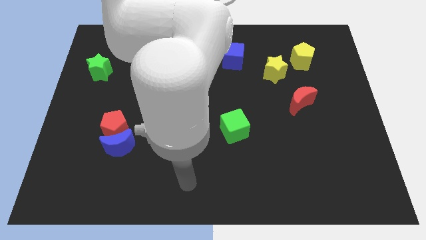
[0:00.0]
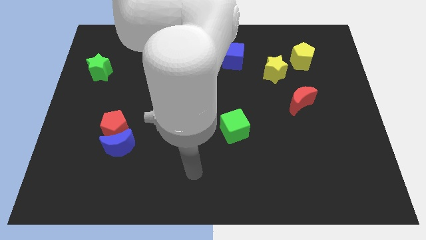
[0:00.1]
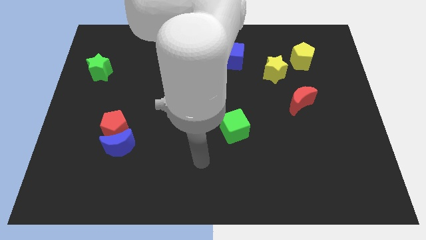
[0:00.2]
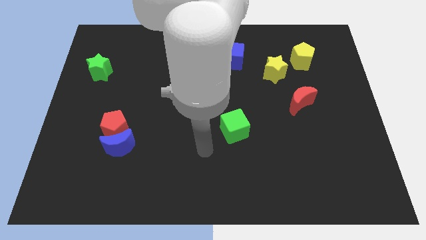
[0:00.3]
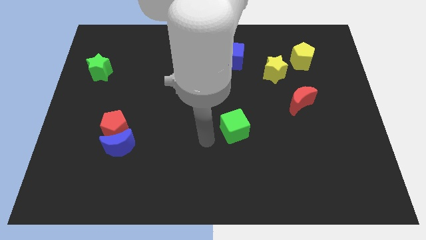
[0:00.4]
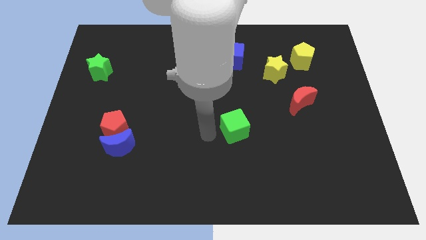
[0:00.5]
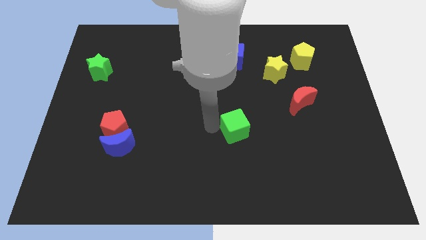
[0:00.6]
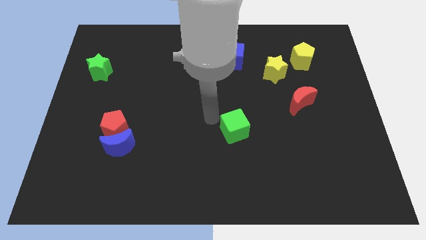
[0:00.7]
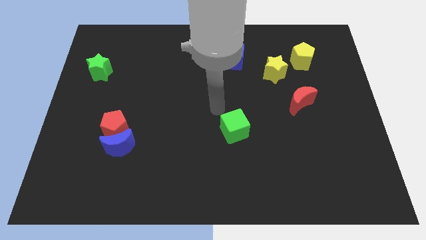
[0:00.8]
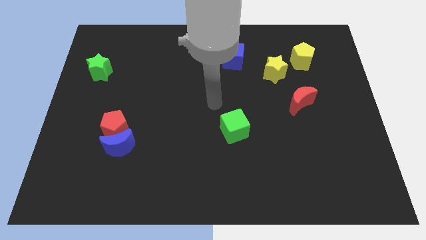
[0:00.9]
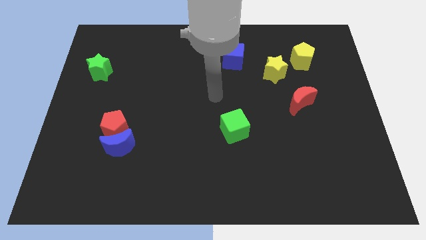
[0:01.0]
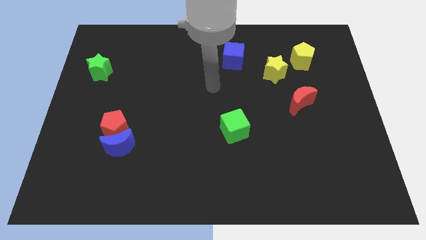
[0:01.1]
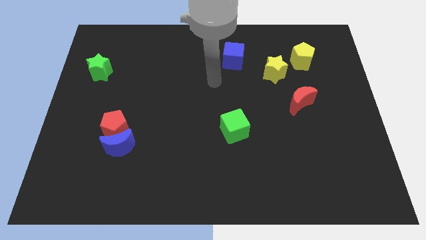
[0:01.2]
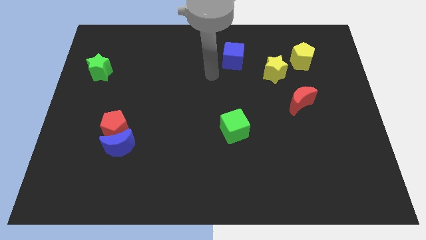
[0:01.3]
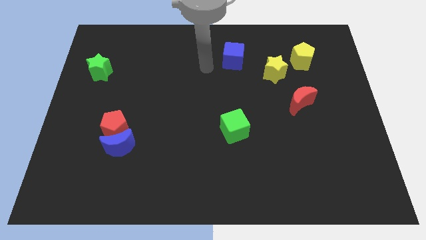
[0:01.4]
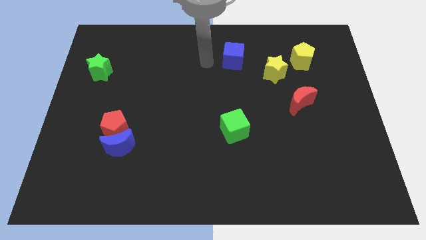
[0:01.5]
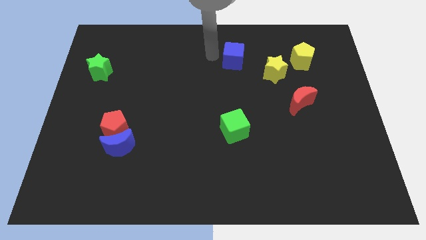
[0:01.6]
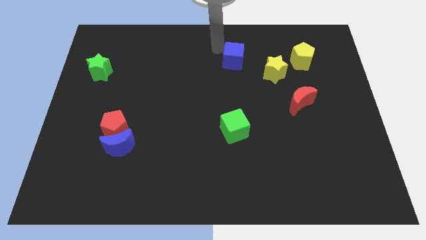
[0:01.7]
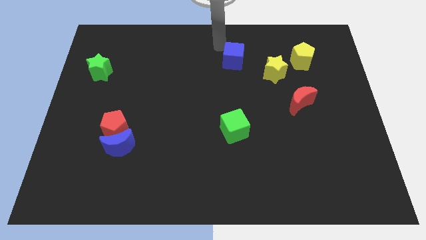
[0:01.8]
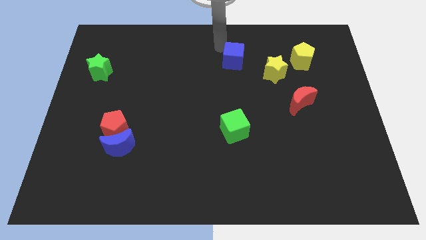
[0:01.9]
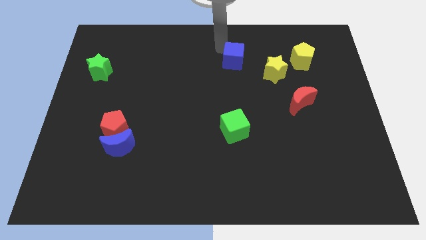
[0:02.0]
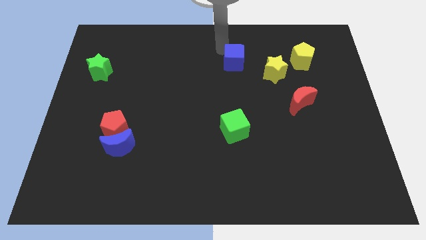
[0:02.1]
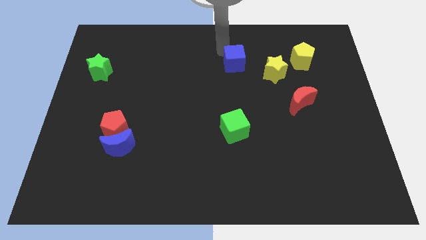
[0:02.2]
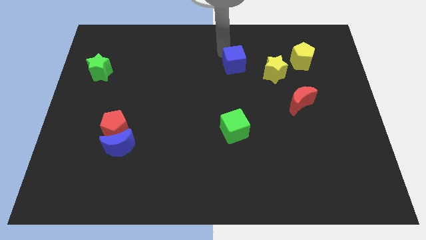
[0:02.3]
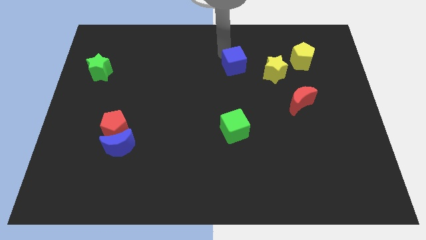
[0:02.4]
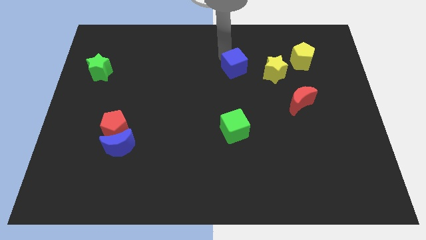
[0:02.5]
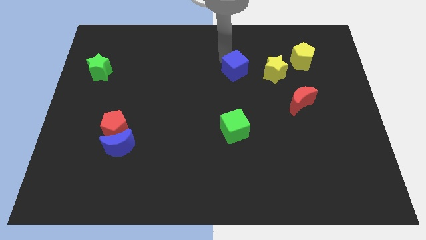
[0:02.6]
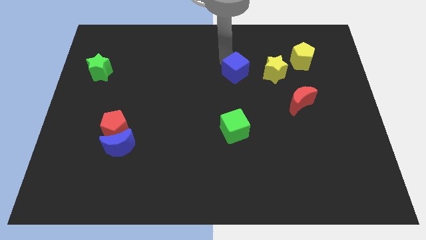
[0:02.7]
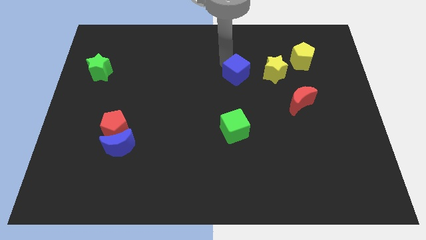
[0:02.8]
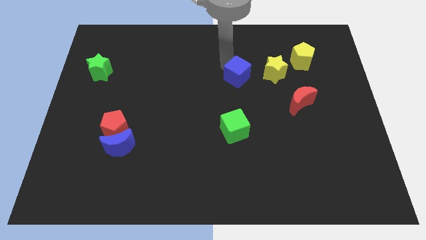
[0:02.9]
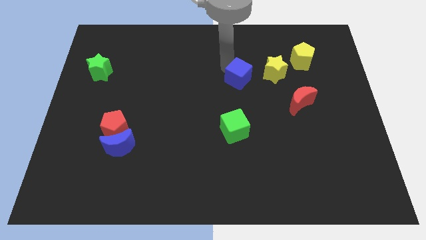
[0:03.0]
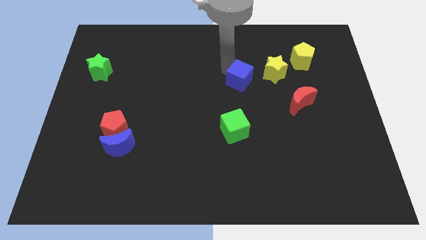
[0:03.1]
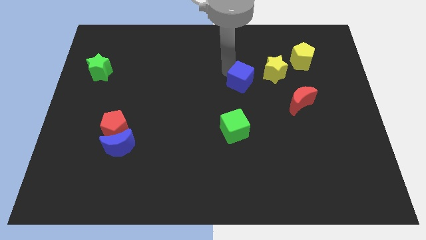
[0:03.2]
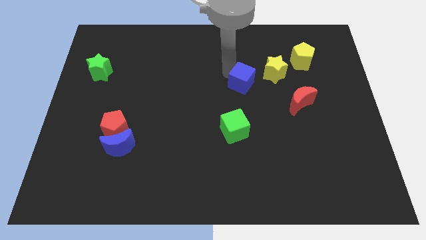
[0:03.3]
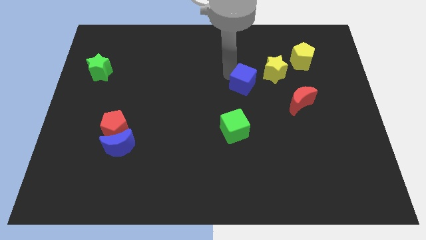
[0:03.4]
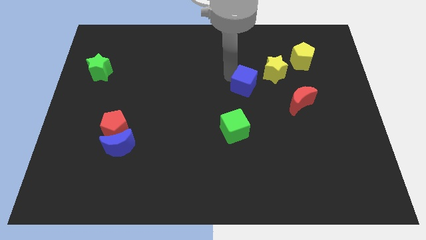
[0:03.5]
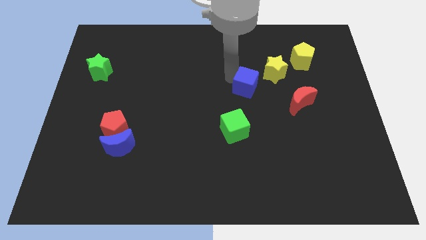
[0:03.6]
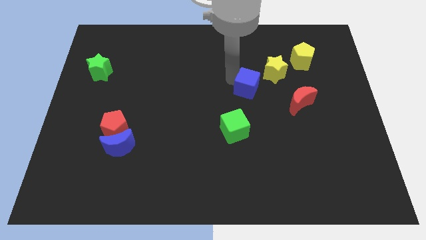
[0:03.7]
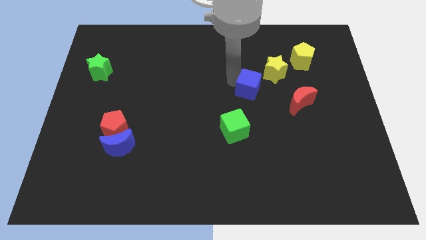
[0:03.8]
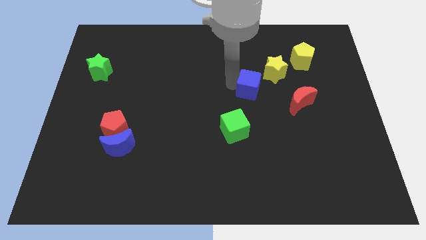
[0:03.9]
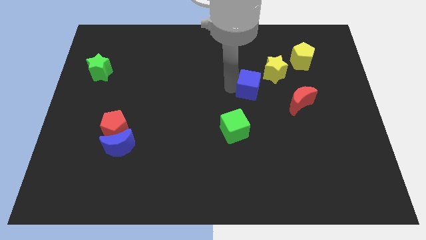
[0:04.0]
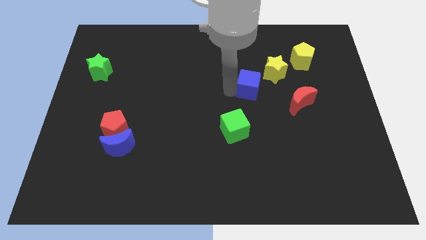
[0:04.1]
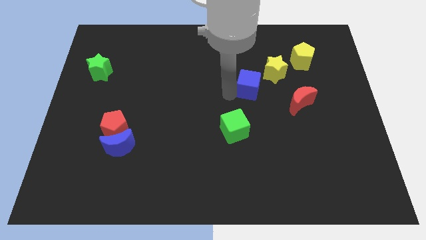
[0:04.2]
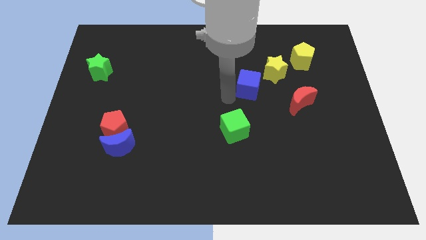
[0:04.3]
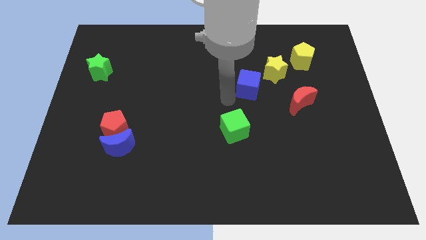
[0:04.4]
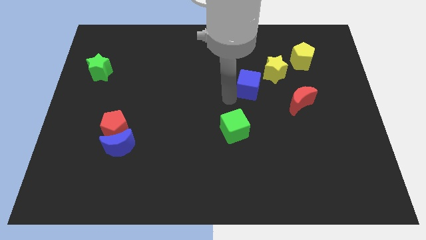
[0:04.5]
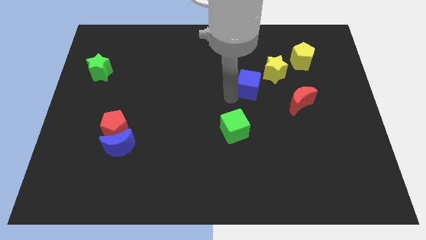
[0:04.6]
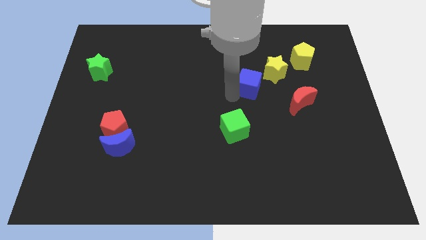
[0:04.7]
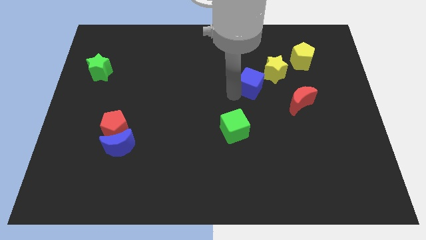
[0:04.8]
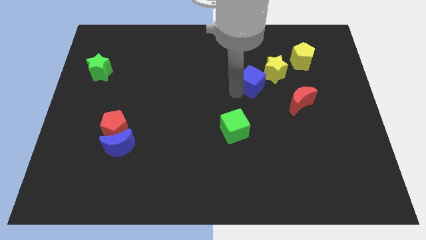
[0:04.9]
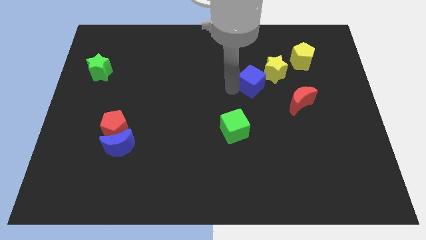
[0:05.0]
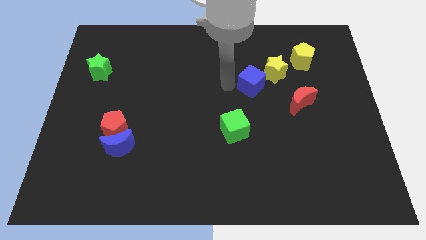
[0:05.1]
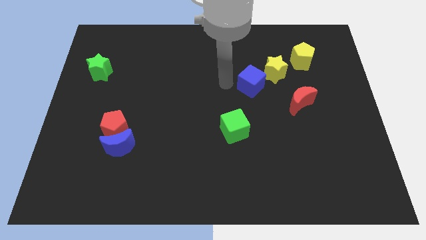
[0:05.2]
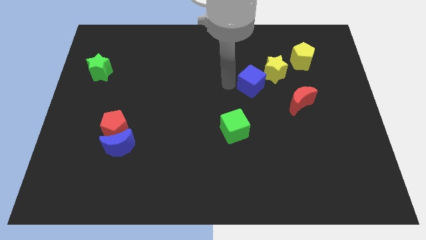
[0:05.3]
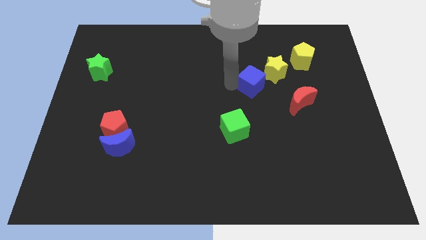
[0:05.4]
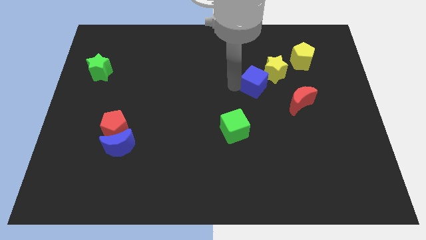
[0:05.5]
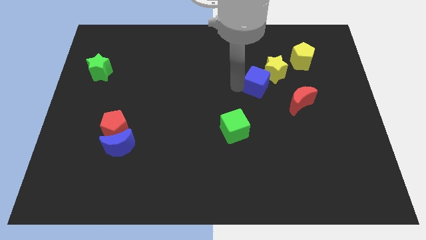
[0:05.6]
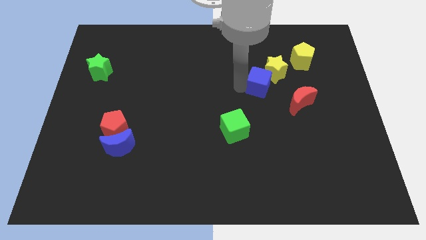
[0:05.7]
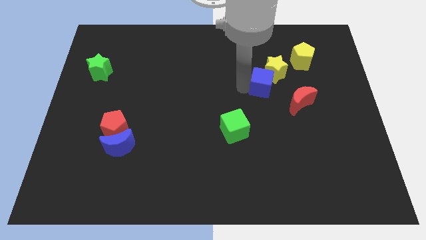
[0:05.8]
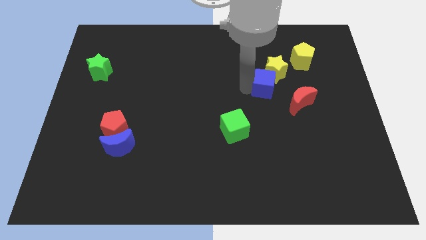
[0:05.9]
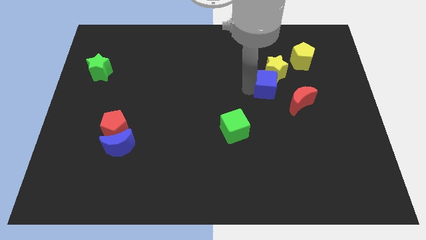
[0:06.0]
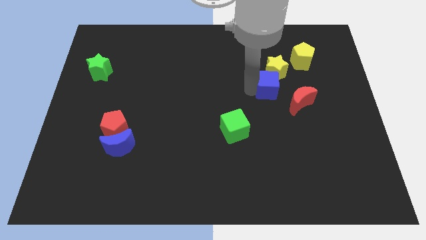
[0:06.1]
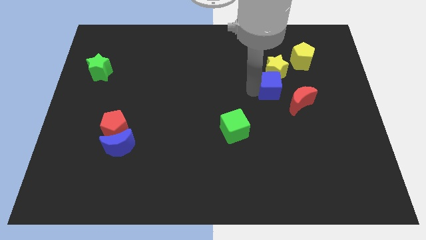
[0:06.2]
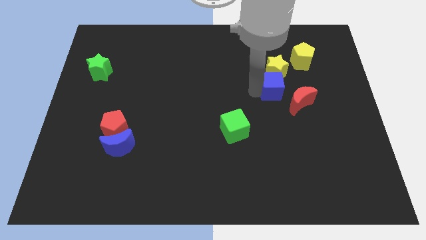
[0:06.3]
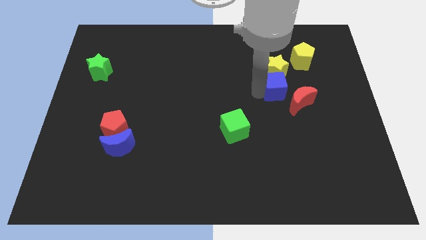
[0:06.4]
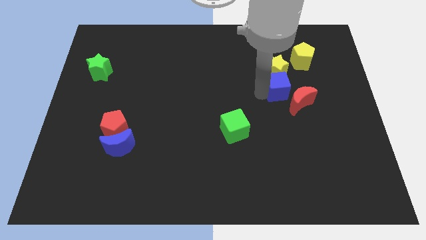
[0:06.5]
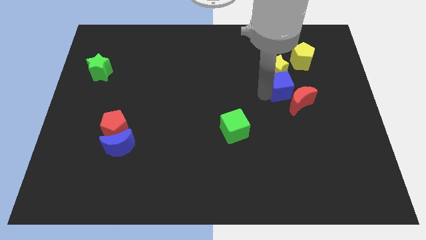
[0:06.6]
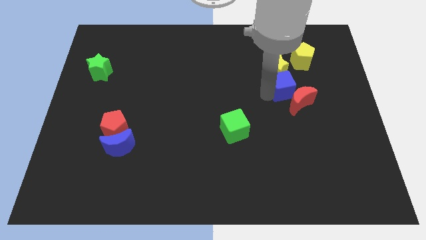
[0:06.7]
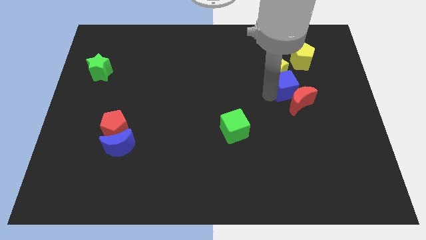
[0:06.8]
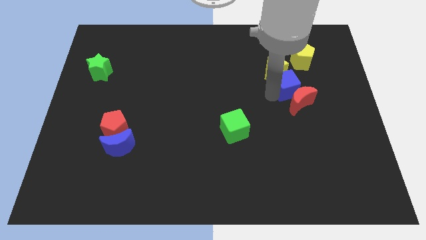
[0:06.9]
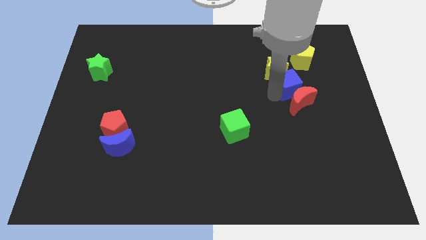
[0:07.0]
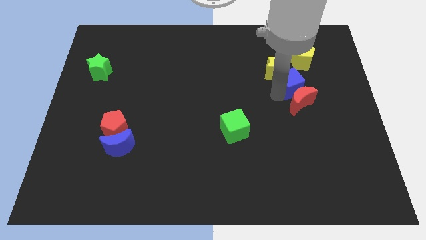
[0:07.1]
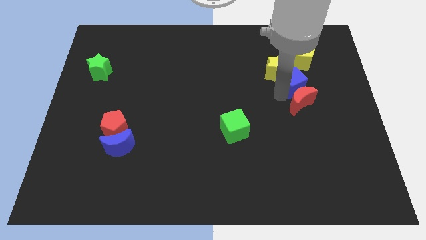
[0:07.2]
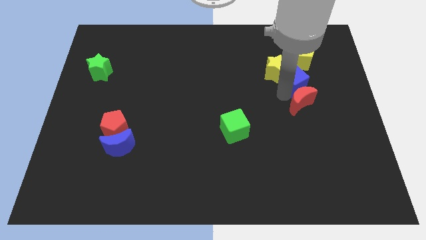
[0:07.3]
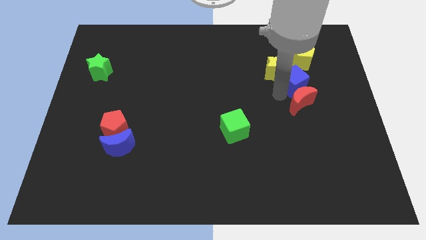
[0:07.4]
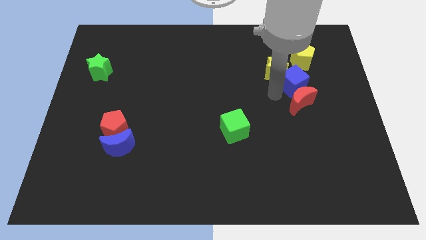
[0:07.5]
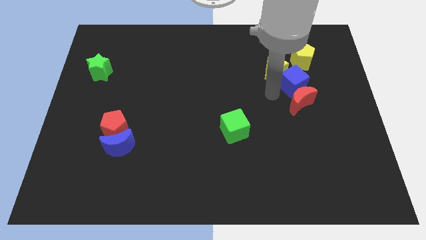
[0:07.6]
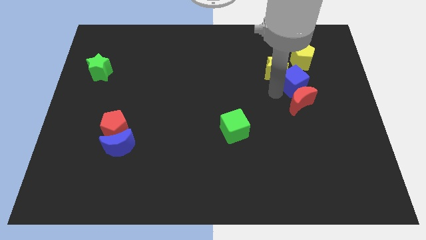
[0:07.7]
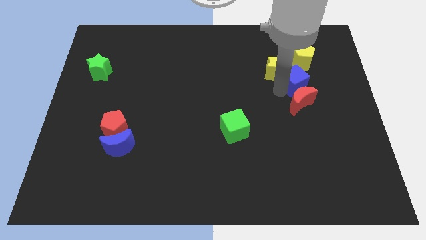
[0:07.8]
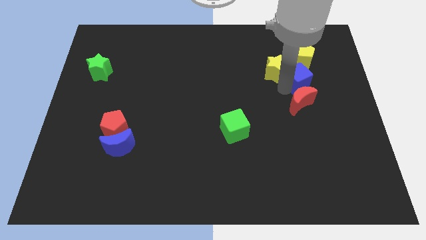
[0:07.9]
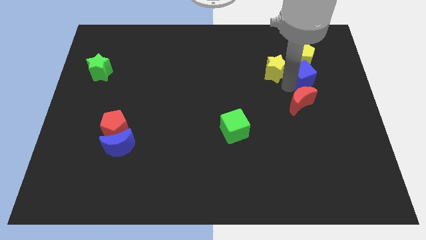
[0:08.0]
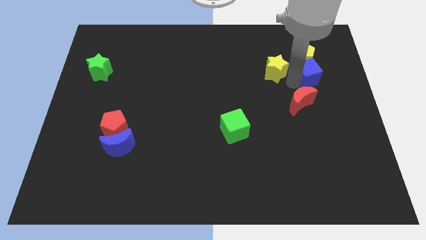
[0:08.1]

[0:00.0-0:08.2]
move the blue cube to the bottom right of the yellow pentagon
